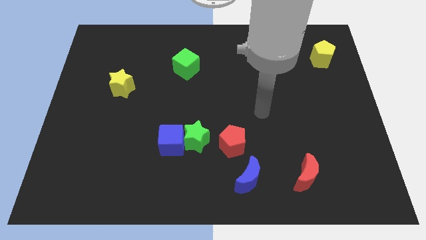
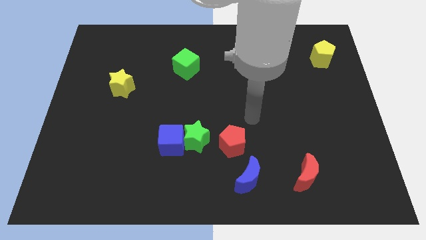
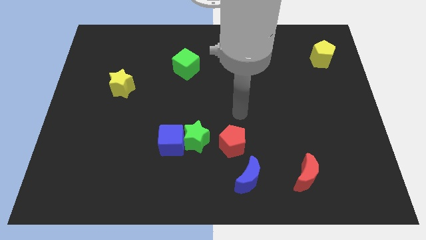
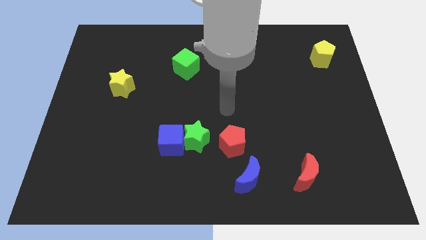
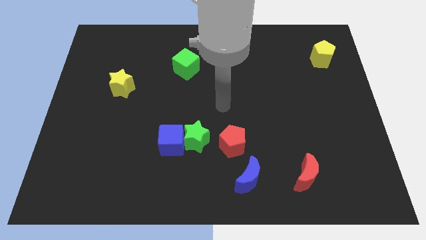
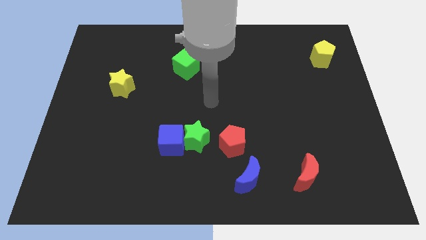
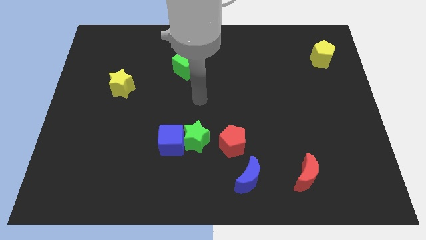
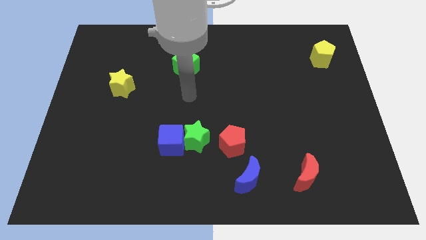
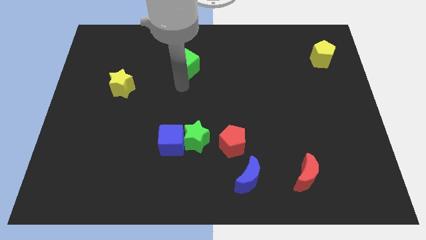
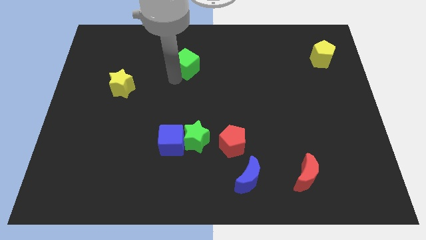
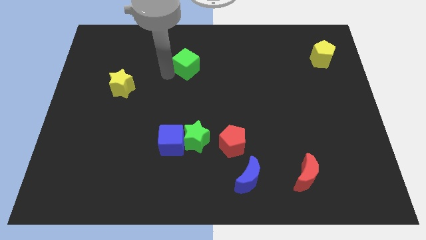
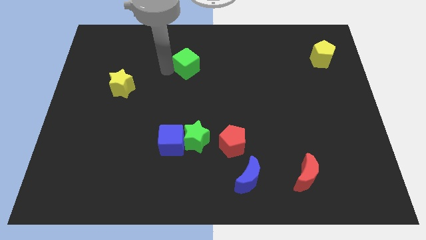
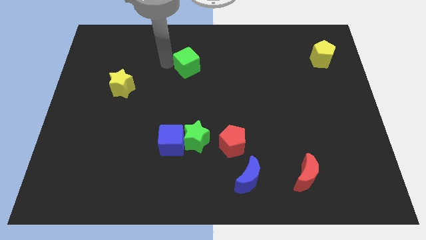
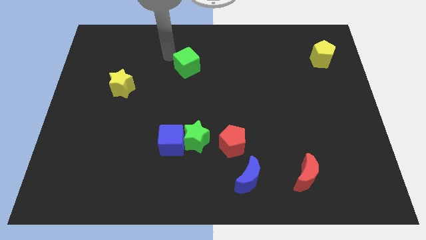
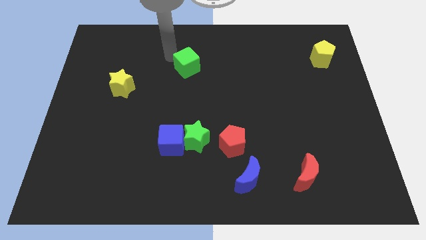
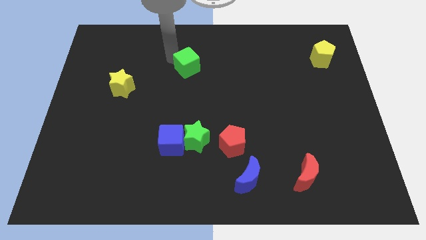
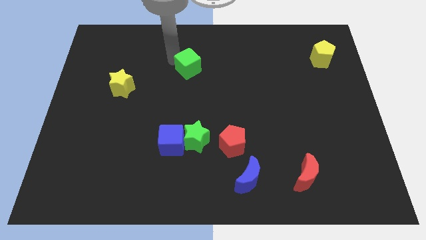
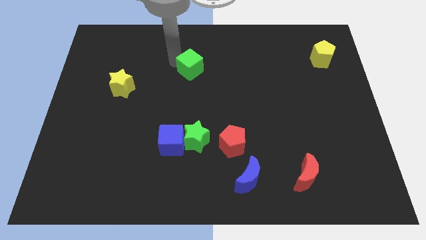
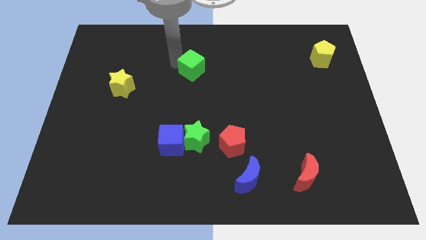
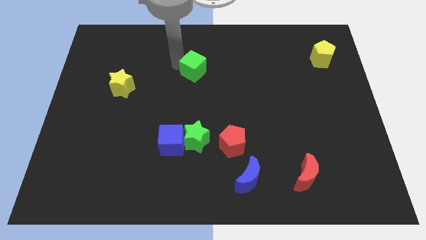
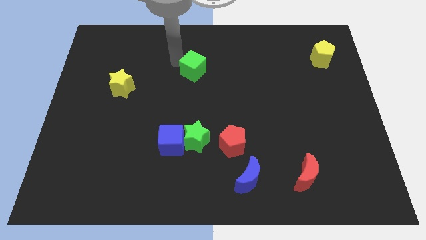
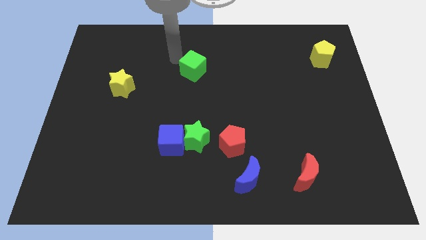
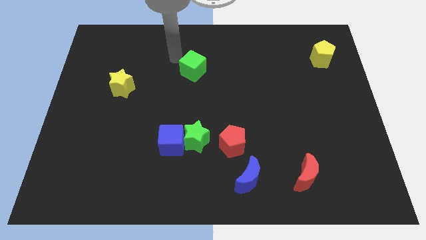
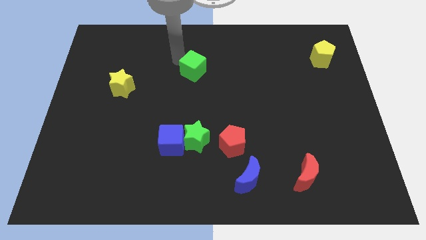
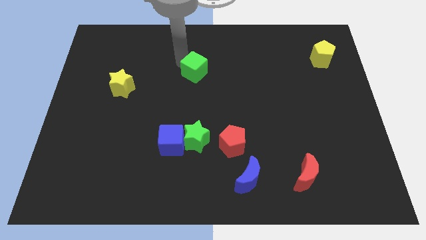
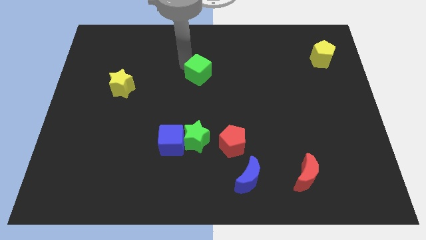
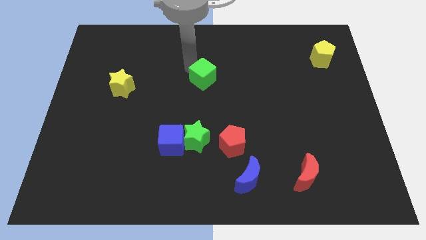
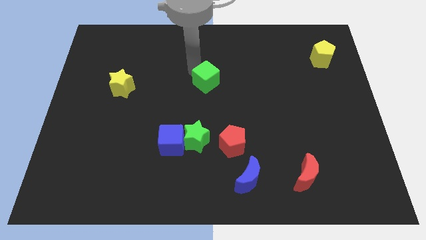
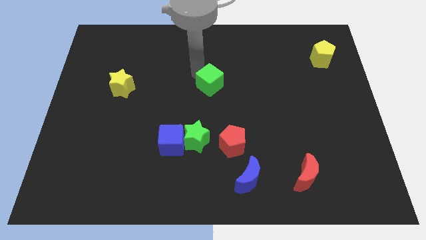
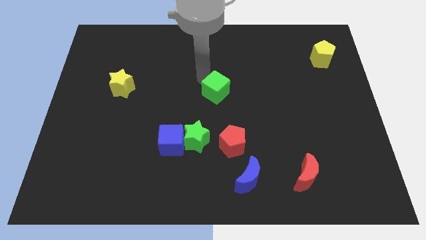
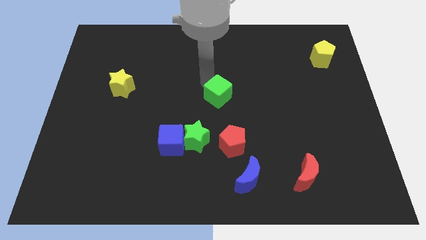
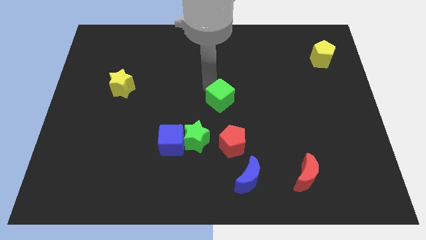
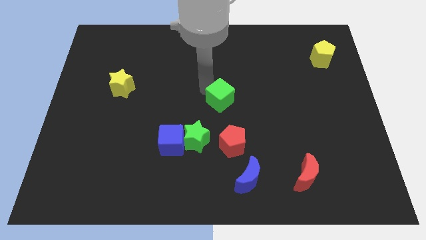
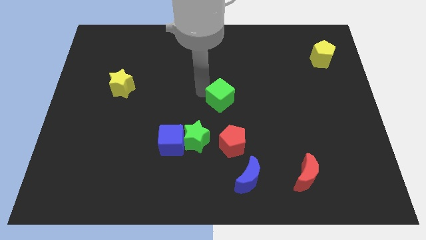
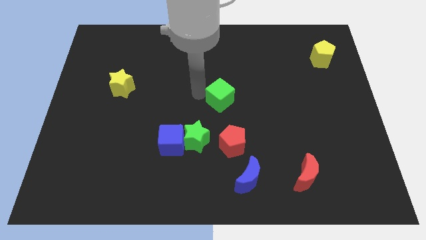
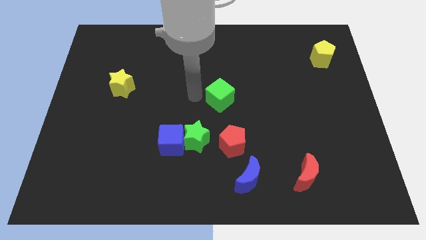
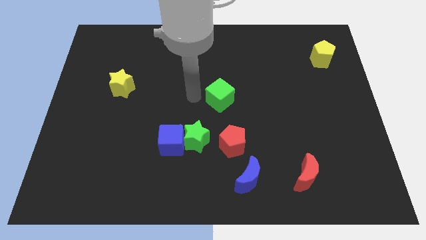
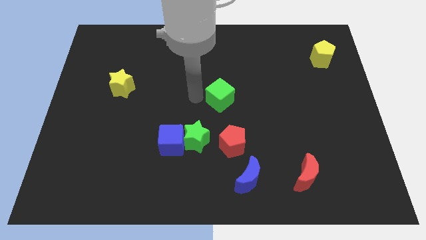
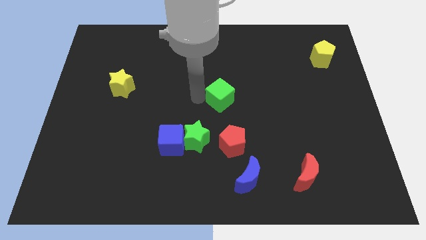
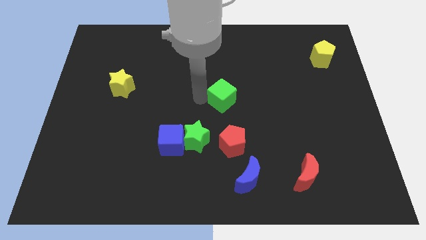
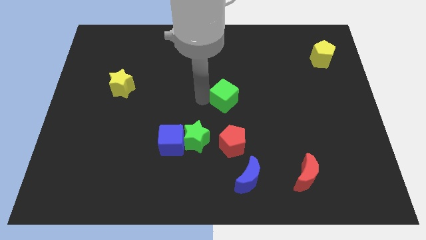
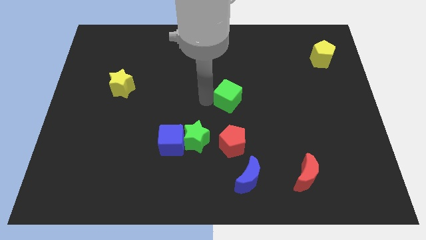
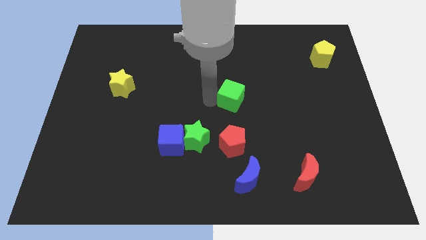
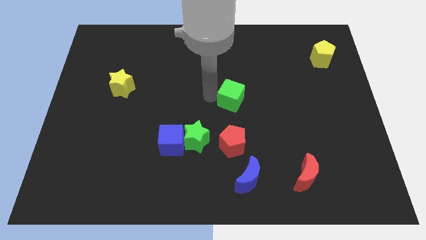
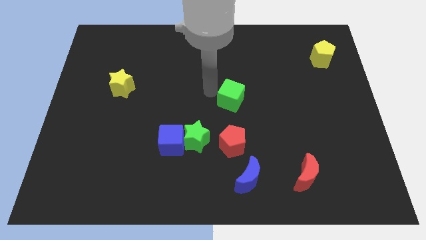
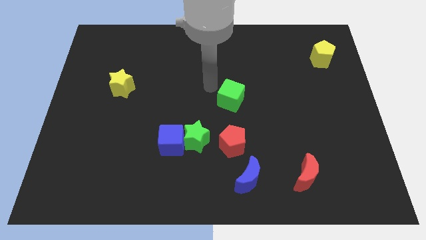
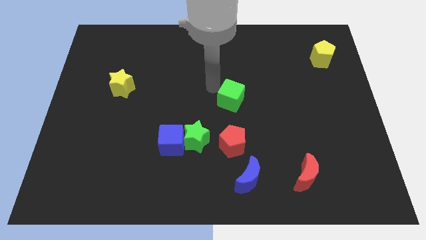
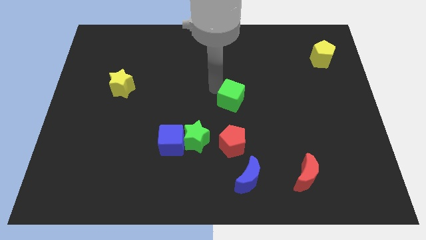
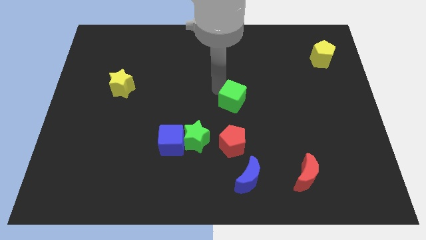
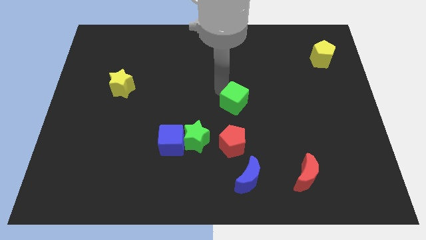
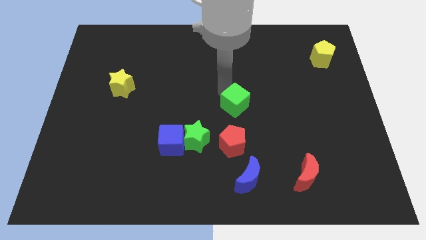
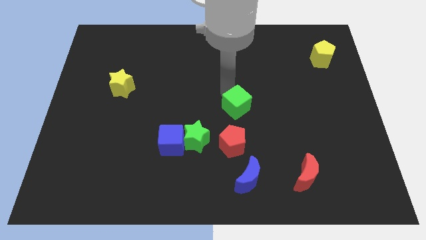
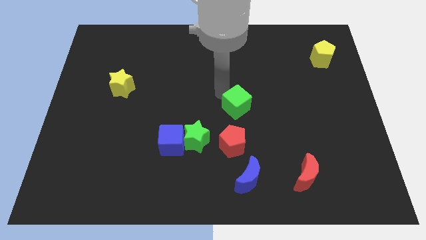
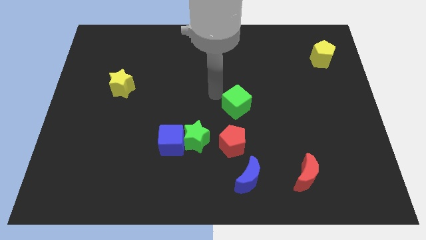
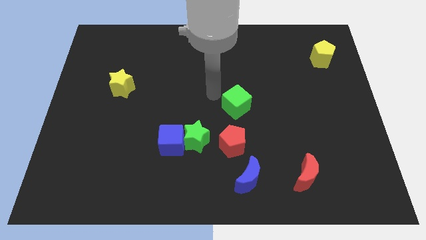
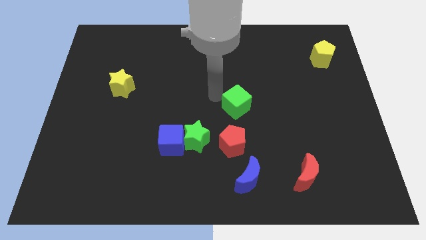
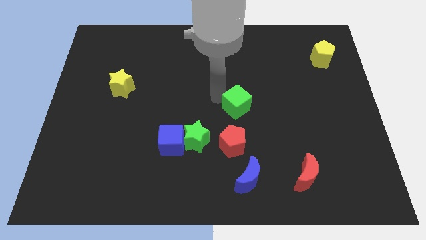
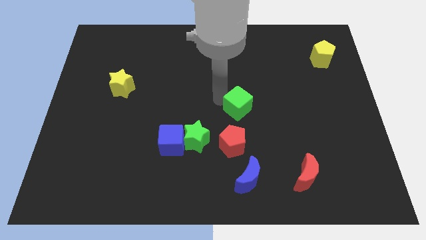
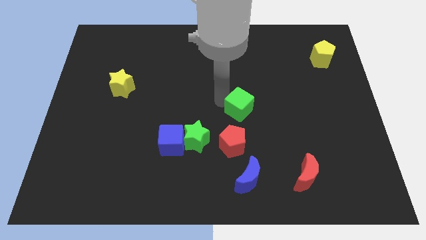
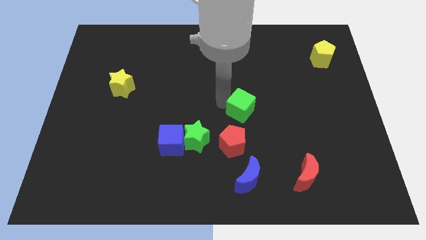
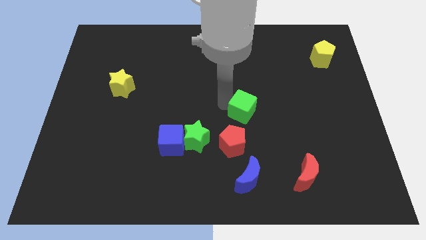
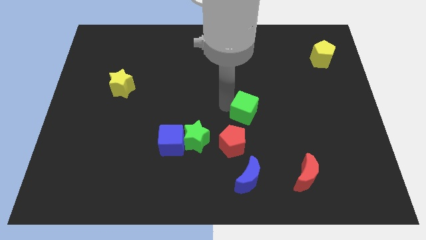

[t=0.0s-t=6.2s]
move the green cube downwards and to the right

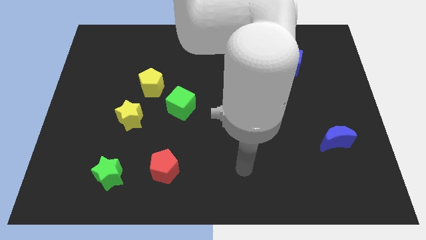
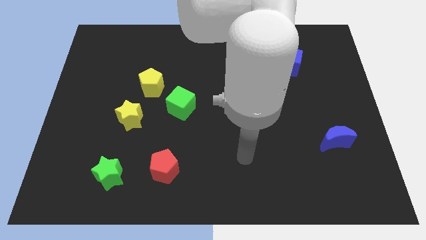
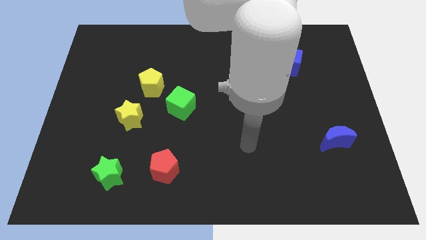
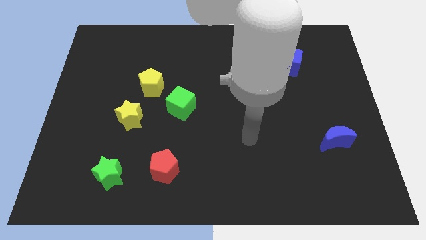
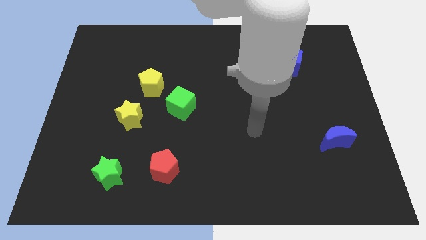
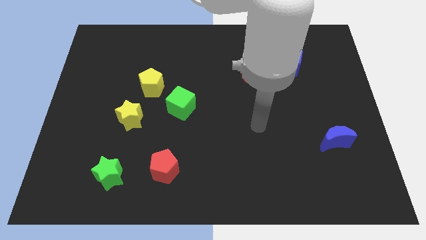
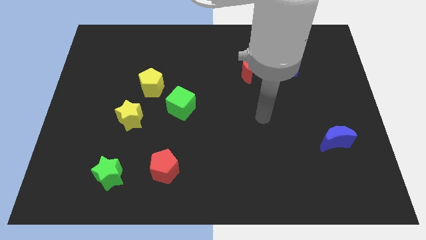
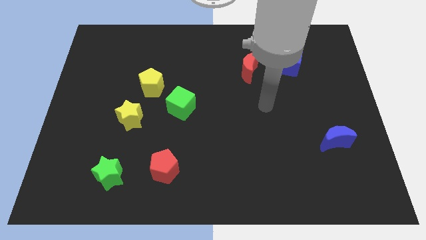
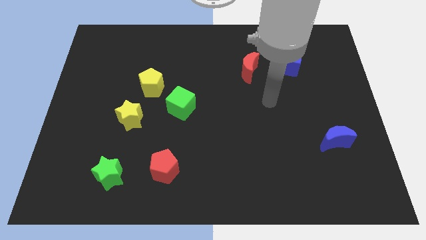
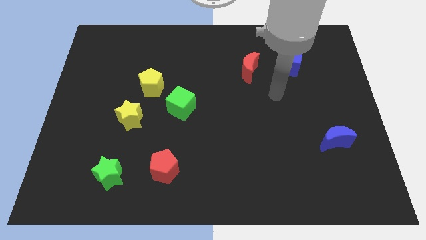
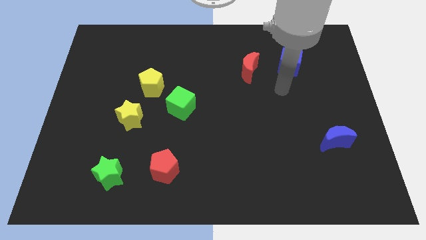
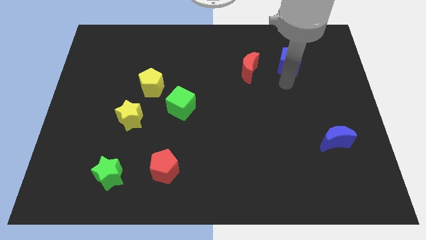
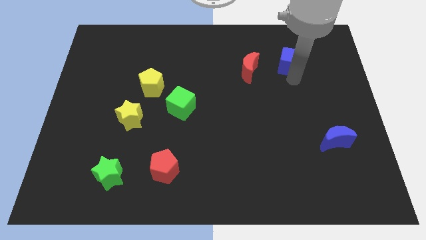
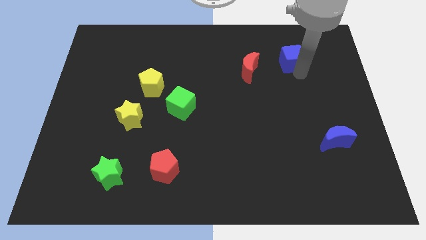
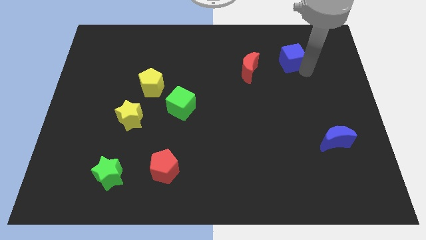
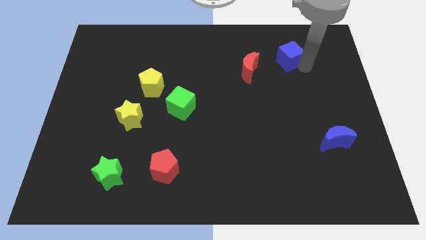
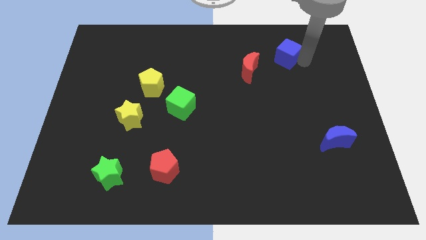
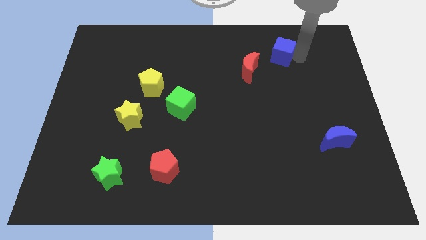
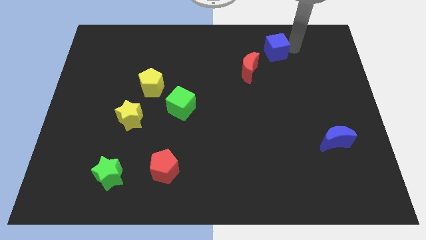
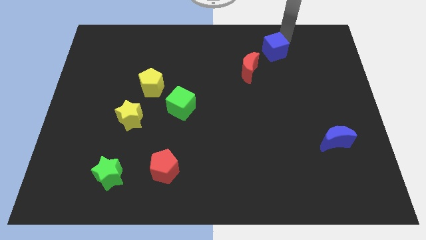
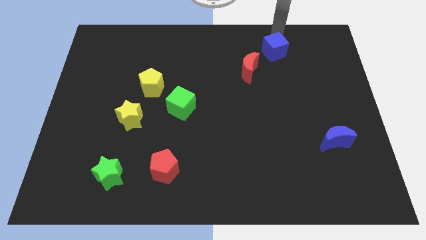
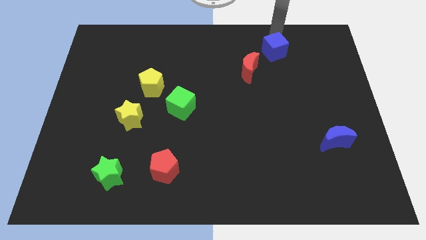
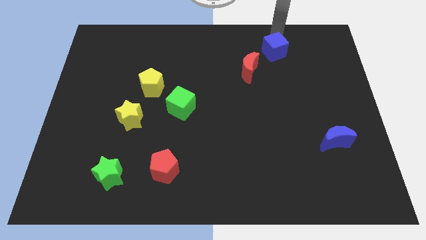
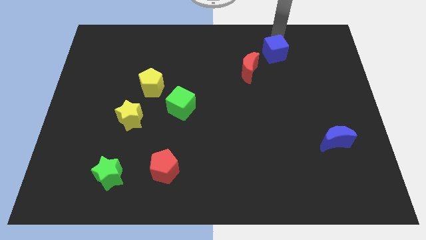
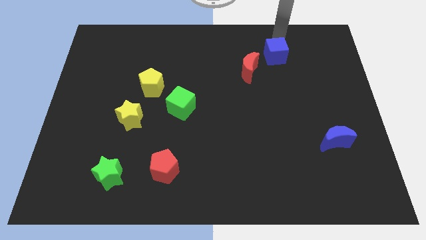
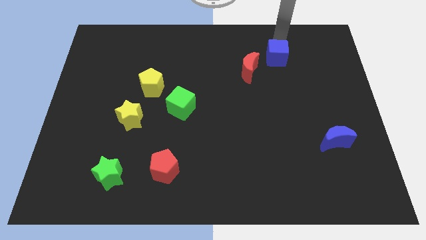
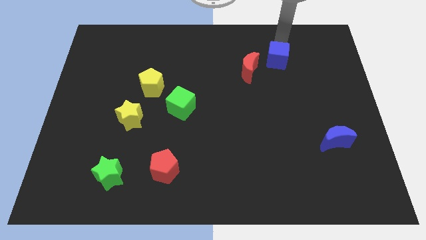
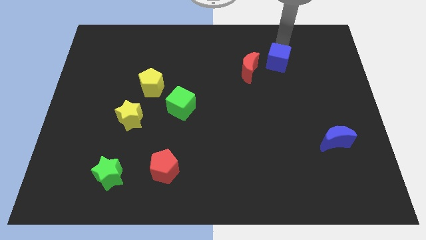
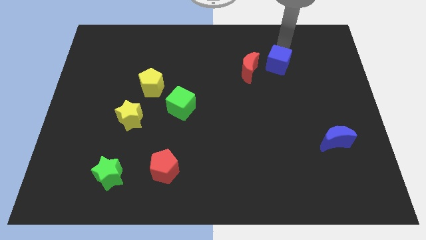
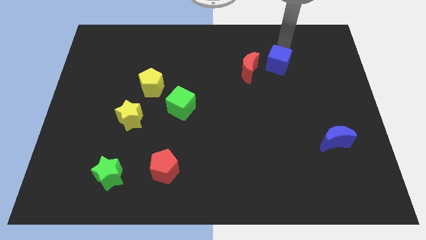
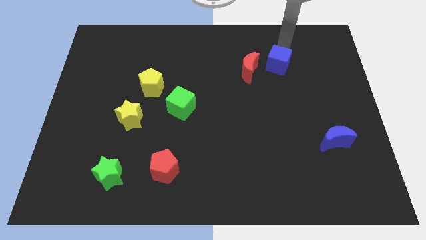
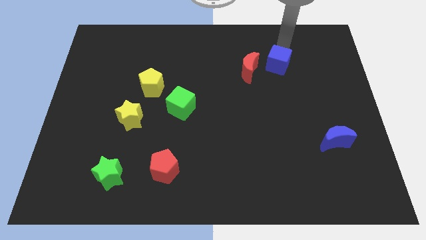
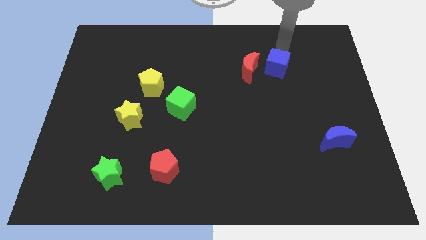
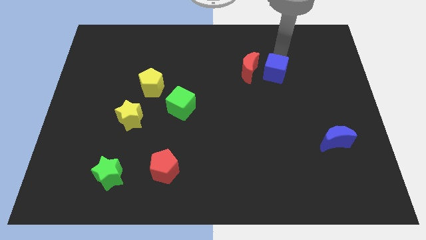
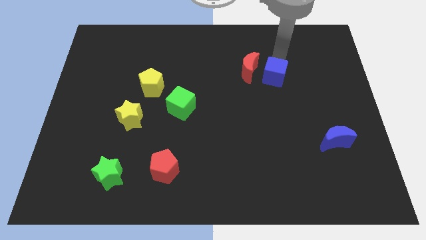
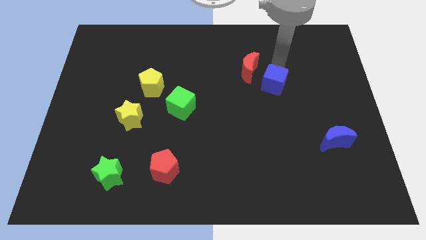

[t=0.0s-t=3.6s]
move the blue cube down and left somewhat
